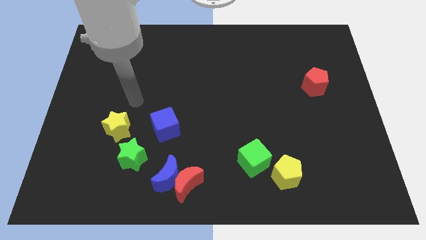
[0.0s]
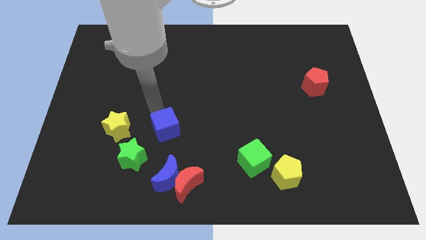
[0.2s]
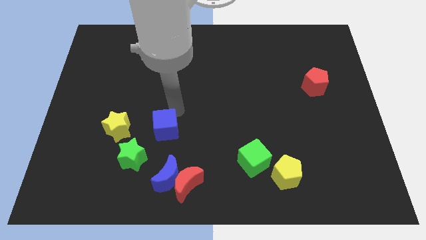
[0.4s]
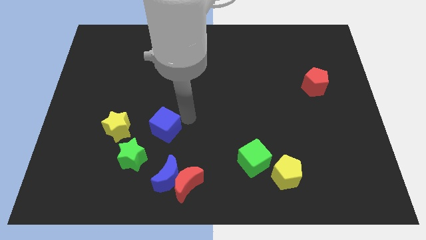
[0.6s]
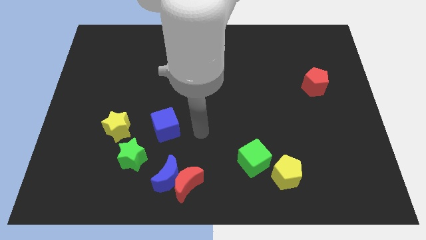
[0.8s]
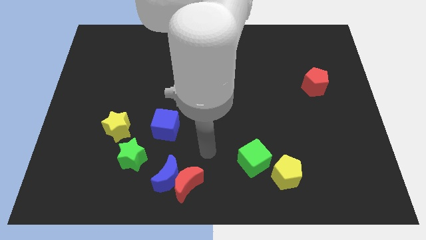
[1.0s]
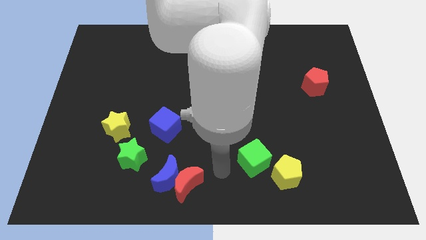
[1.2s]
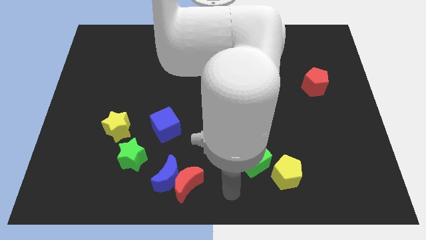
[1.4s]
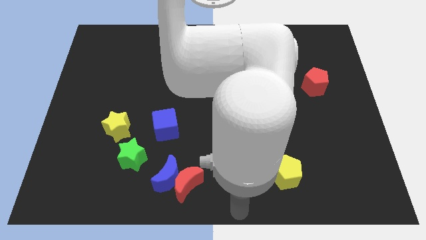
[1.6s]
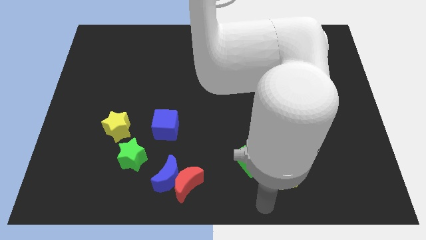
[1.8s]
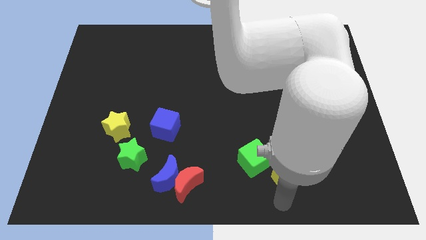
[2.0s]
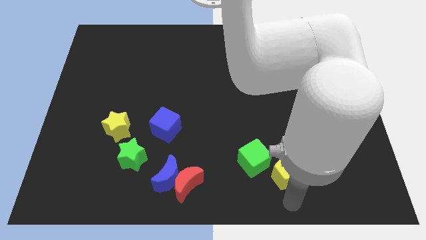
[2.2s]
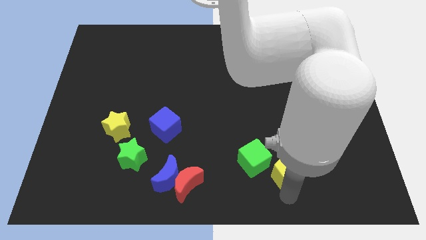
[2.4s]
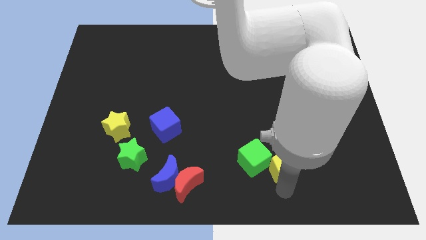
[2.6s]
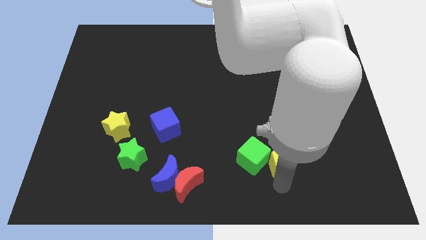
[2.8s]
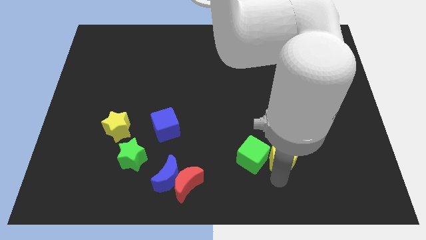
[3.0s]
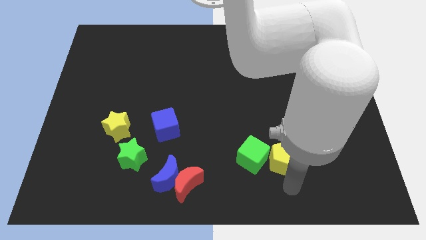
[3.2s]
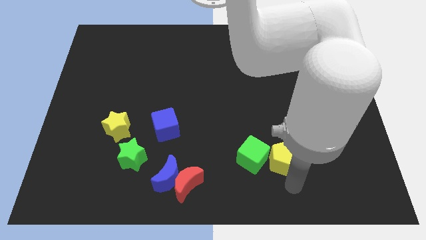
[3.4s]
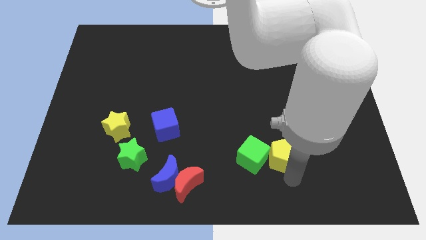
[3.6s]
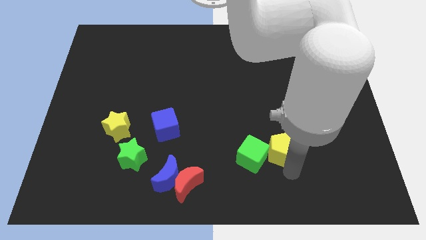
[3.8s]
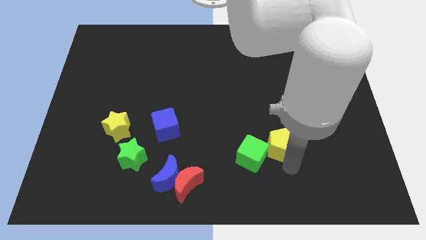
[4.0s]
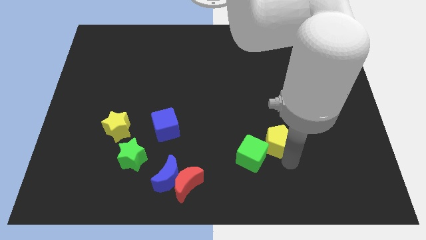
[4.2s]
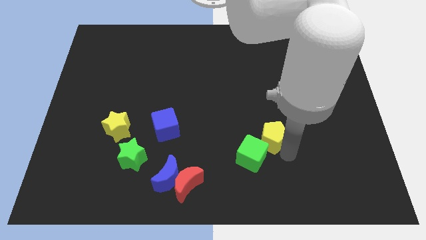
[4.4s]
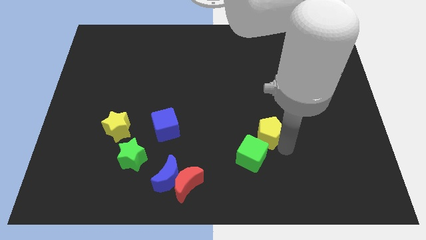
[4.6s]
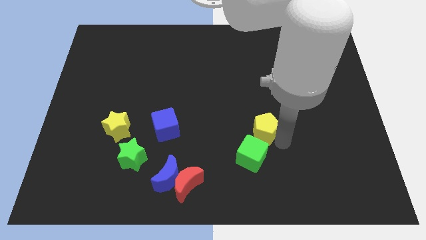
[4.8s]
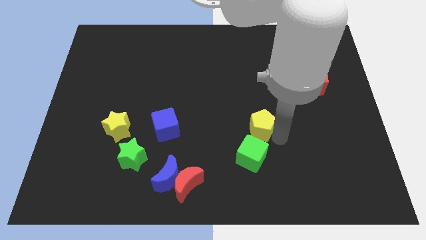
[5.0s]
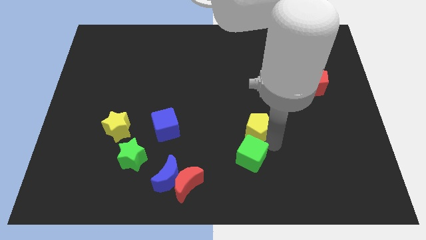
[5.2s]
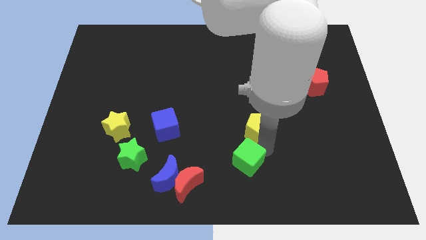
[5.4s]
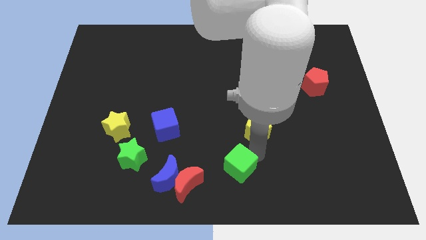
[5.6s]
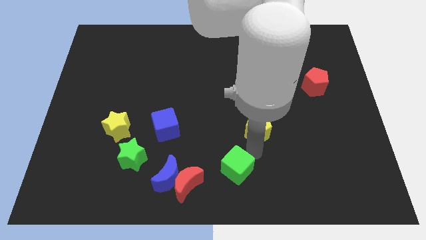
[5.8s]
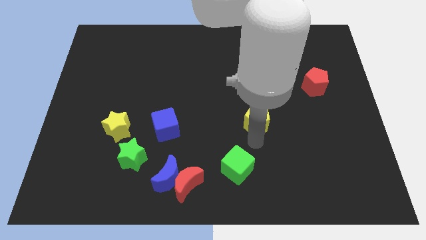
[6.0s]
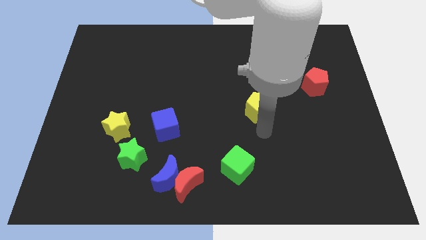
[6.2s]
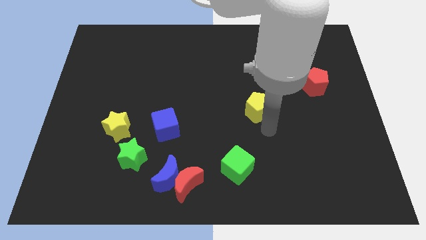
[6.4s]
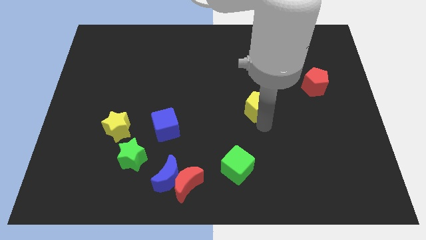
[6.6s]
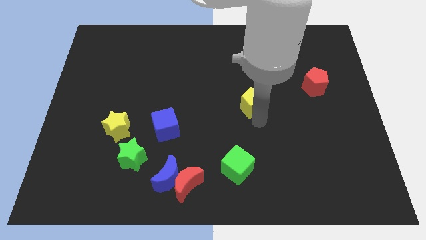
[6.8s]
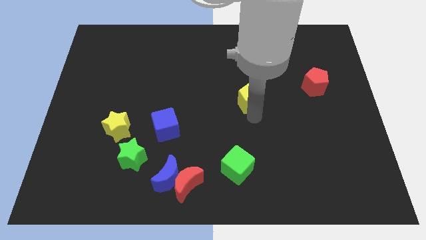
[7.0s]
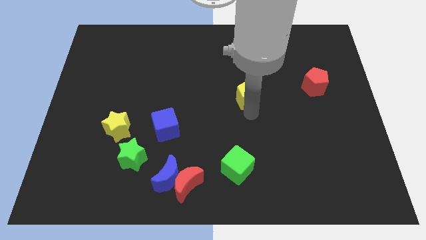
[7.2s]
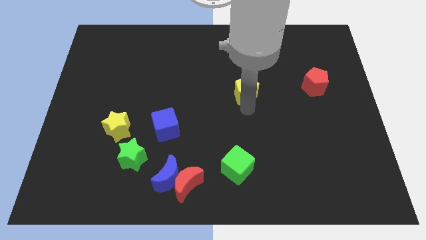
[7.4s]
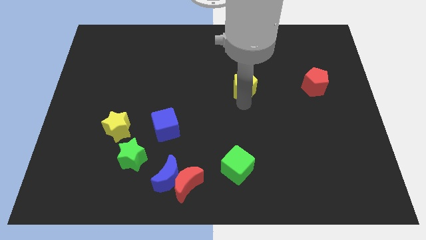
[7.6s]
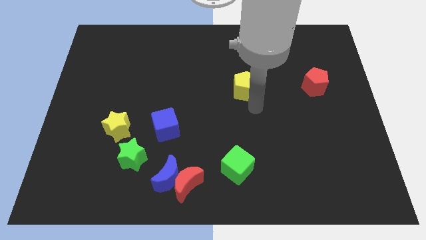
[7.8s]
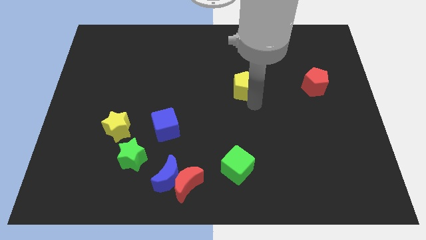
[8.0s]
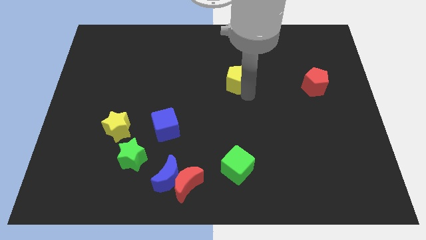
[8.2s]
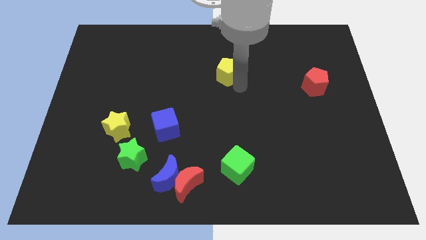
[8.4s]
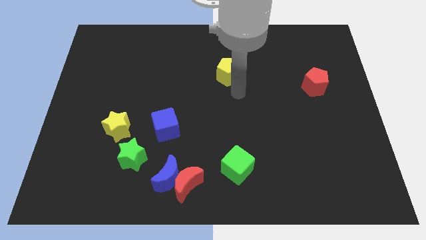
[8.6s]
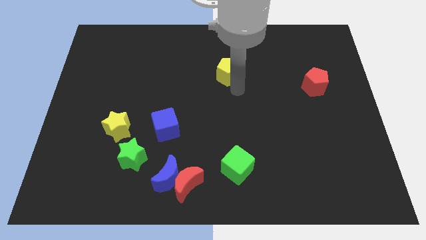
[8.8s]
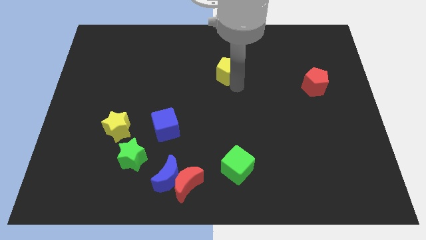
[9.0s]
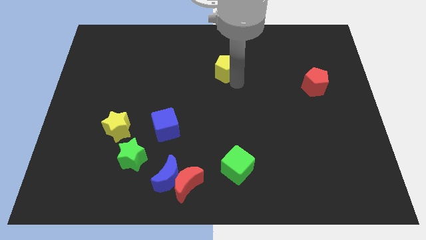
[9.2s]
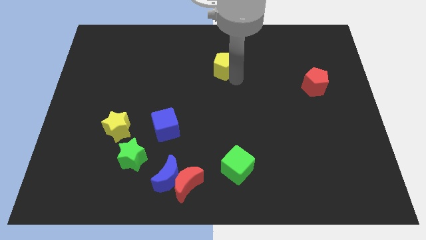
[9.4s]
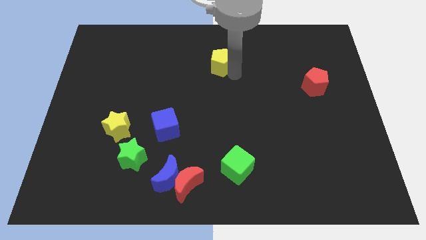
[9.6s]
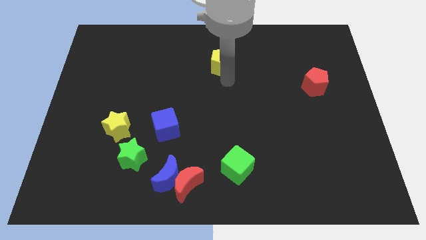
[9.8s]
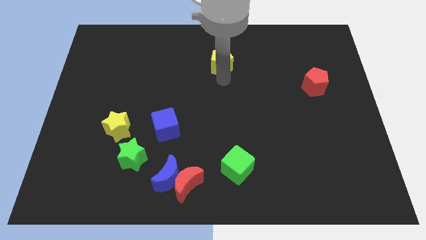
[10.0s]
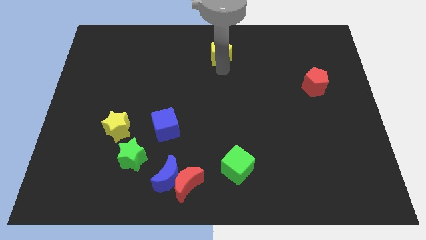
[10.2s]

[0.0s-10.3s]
move the yellow pentagon to the towards your base

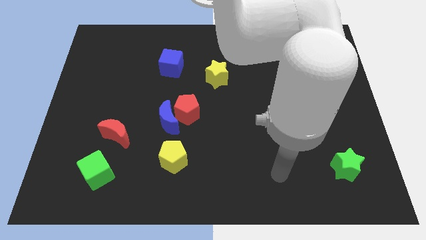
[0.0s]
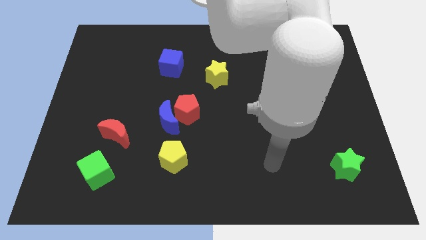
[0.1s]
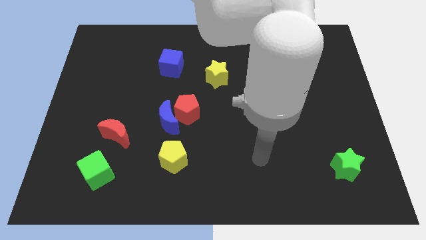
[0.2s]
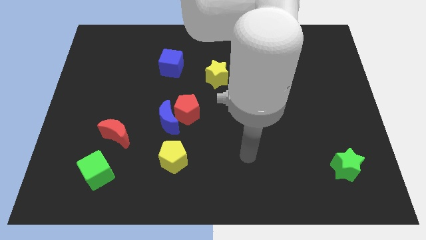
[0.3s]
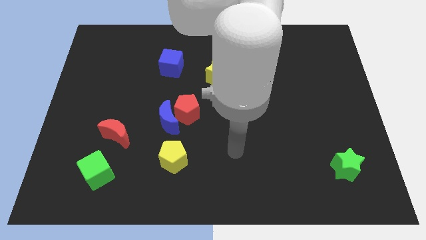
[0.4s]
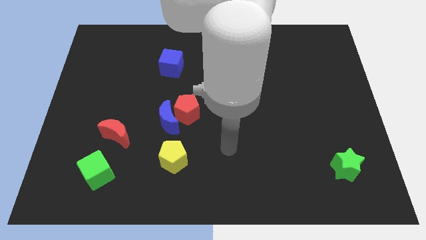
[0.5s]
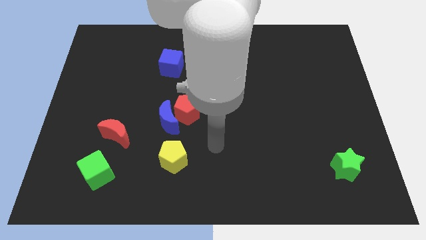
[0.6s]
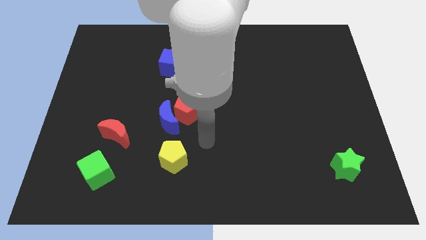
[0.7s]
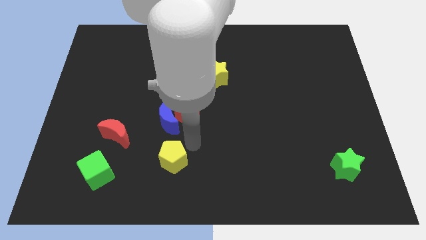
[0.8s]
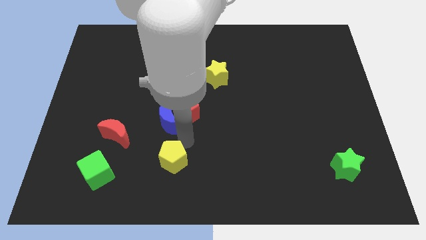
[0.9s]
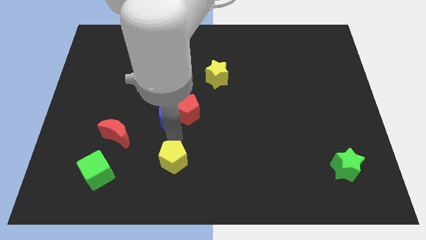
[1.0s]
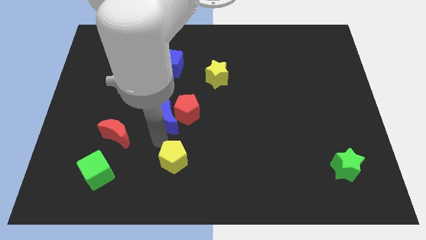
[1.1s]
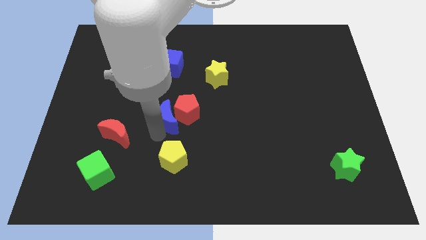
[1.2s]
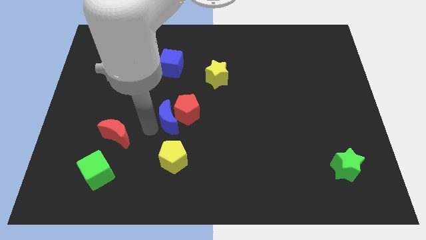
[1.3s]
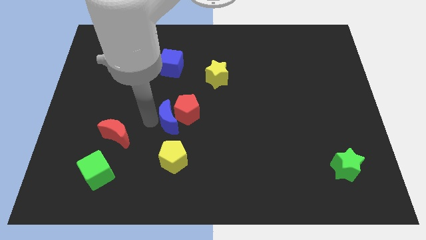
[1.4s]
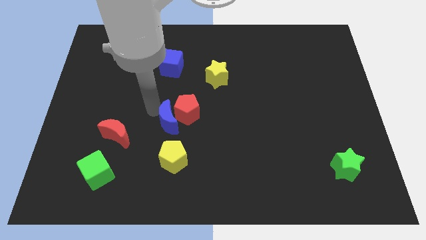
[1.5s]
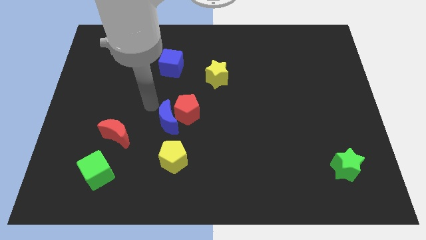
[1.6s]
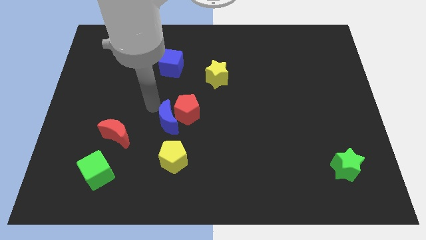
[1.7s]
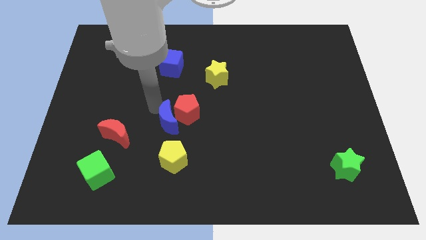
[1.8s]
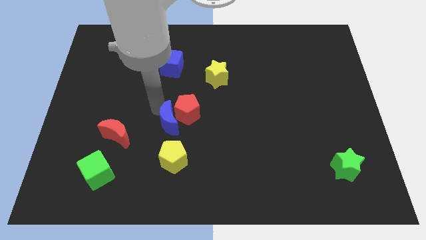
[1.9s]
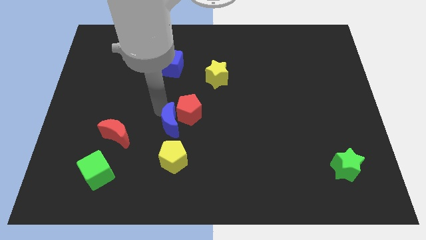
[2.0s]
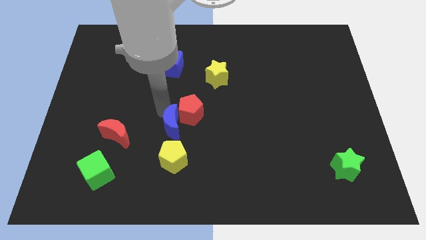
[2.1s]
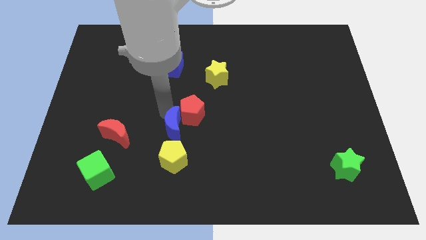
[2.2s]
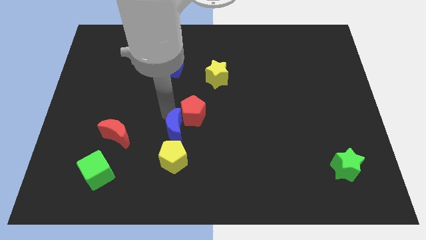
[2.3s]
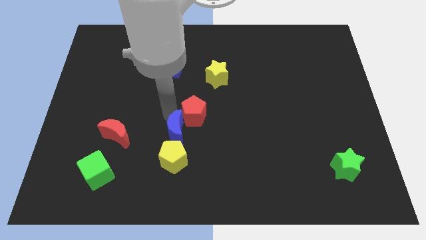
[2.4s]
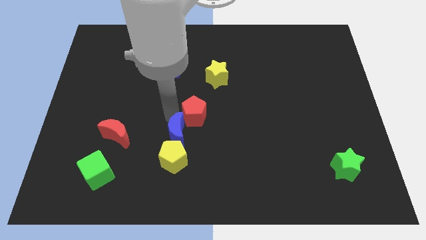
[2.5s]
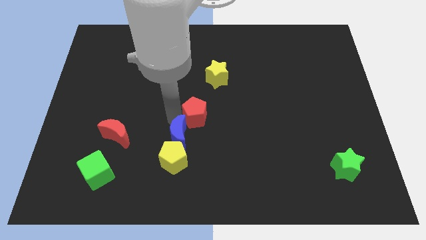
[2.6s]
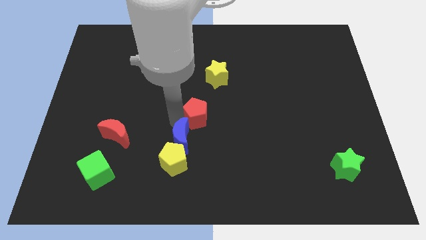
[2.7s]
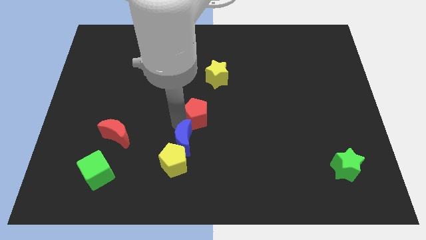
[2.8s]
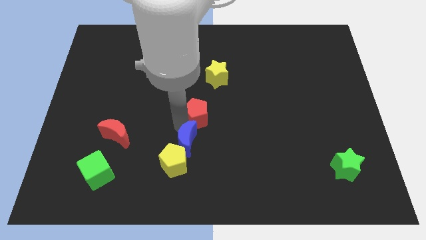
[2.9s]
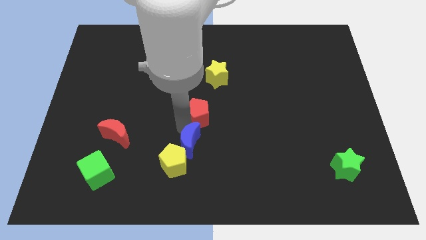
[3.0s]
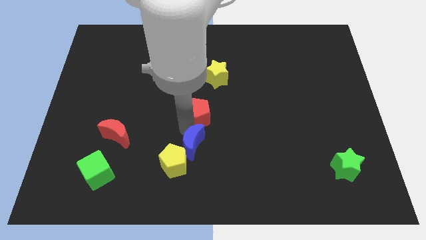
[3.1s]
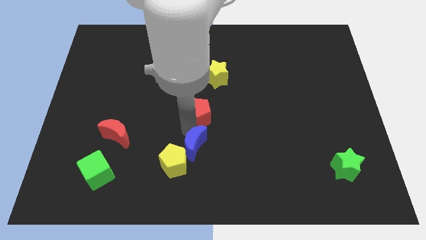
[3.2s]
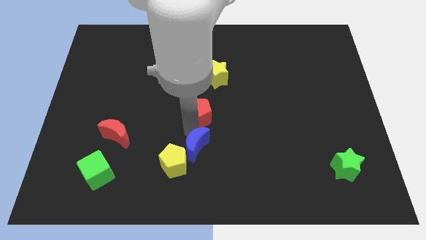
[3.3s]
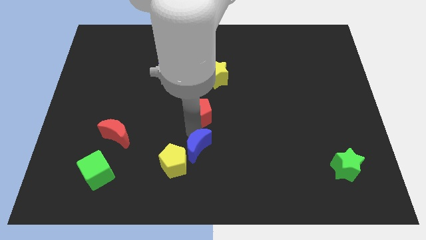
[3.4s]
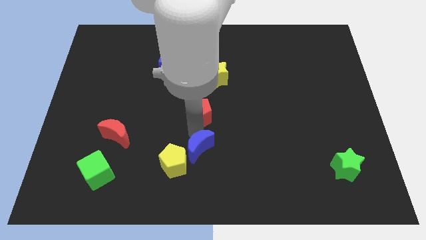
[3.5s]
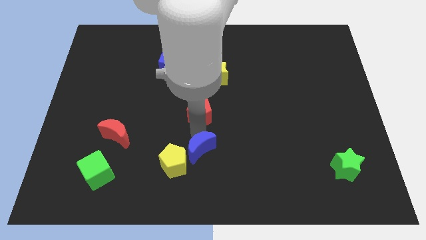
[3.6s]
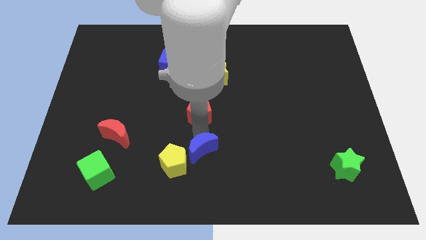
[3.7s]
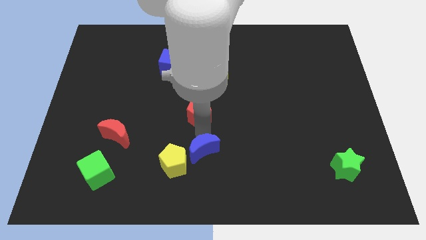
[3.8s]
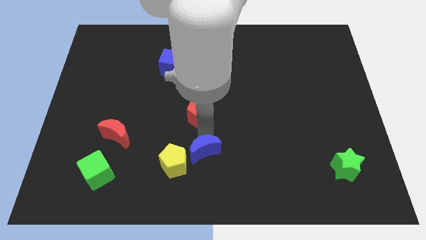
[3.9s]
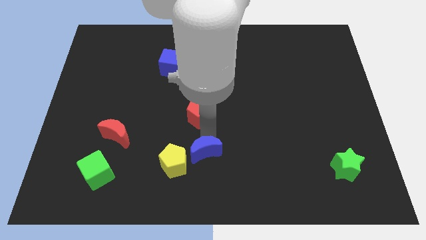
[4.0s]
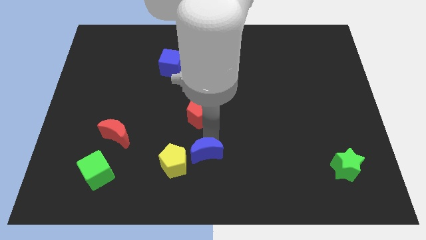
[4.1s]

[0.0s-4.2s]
push the blue moon to the bottom side
